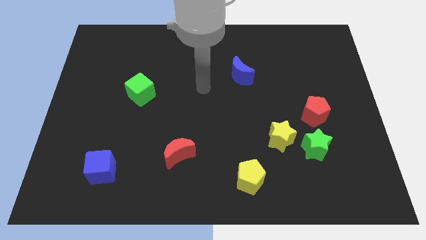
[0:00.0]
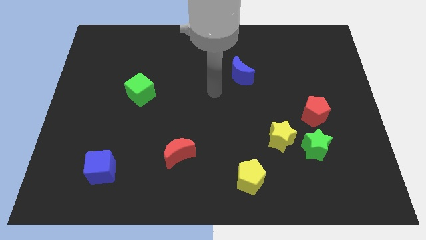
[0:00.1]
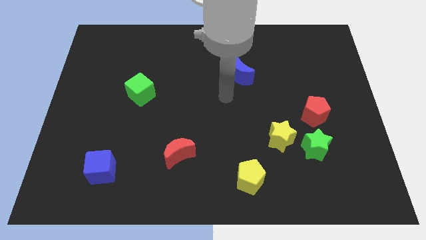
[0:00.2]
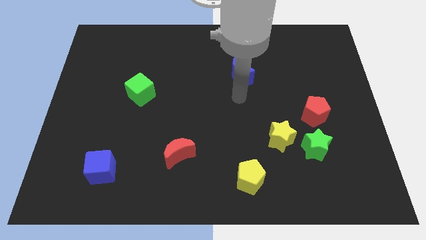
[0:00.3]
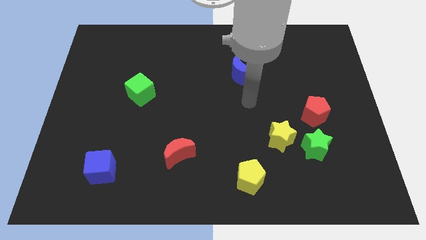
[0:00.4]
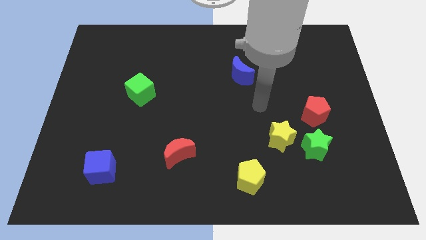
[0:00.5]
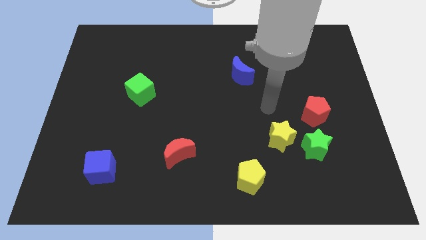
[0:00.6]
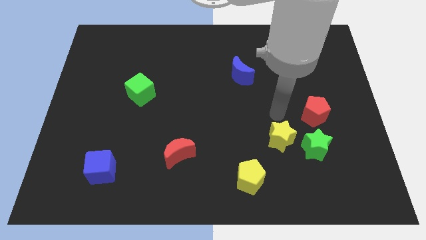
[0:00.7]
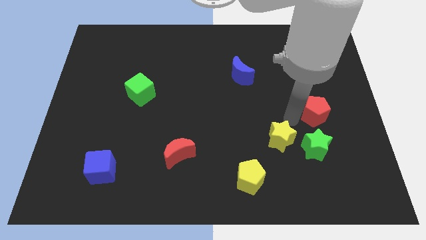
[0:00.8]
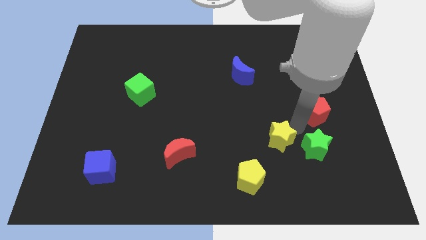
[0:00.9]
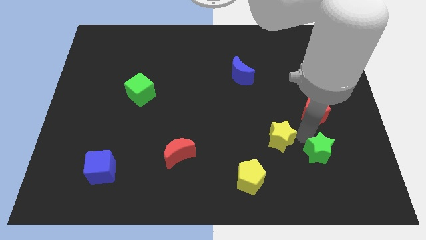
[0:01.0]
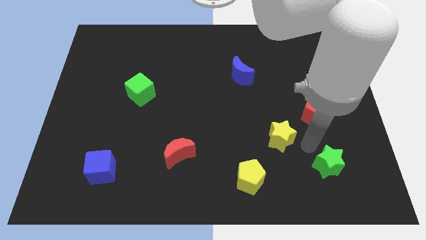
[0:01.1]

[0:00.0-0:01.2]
separate the yellow star from the green star

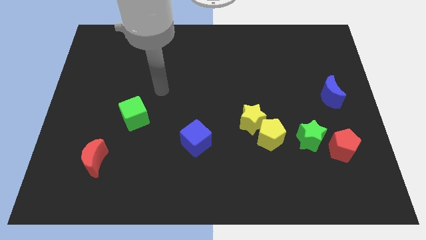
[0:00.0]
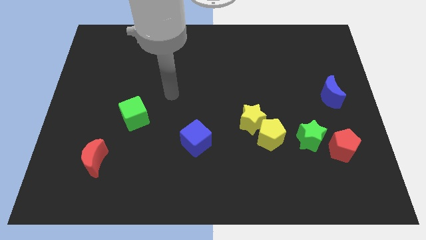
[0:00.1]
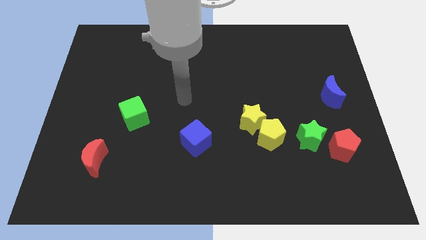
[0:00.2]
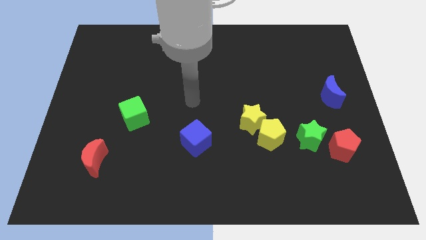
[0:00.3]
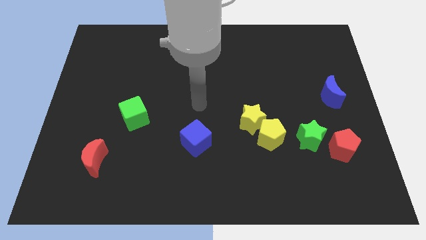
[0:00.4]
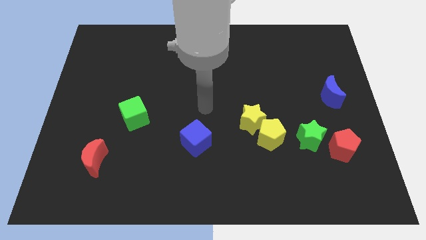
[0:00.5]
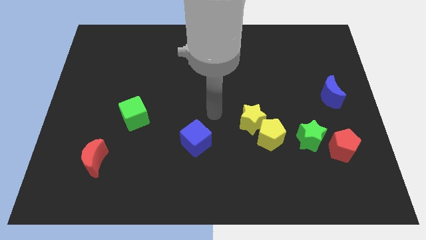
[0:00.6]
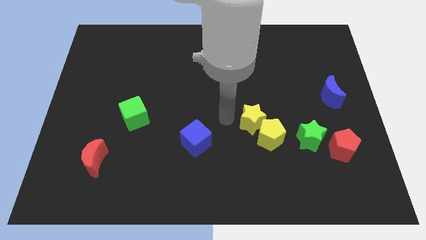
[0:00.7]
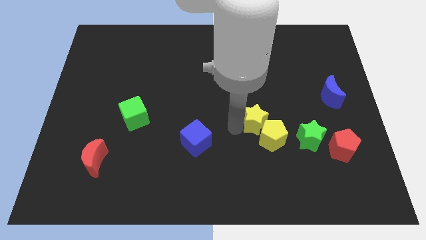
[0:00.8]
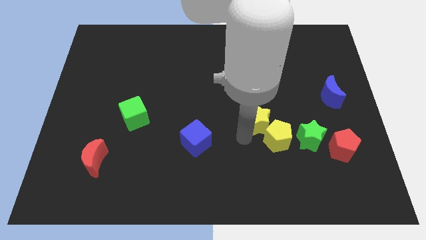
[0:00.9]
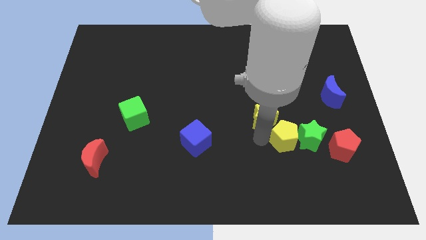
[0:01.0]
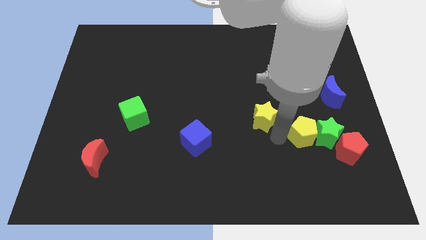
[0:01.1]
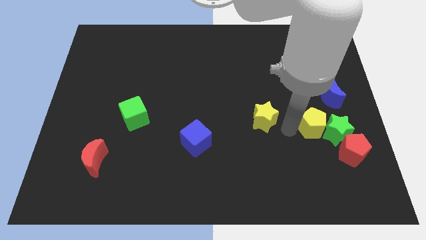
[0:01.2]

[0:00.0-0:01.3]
pull the yellow star apart from the yellow pentagon

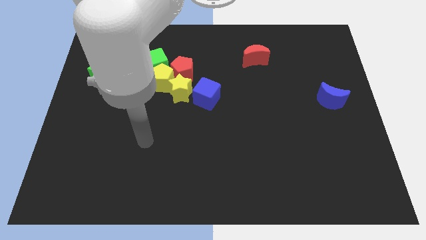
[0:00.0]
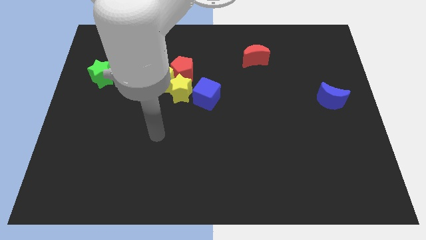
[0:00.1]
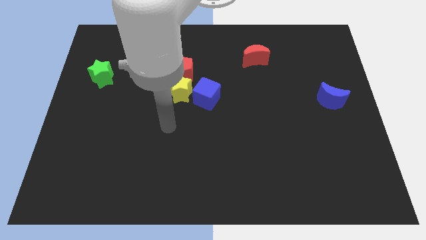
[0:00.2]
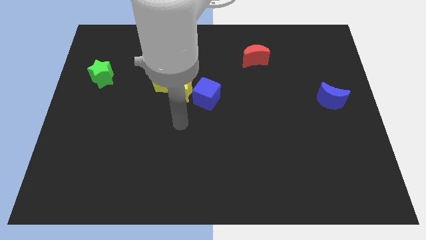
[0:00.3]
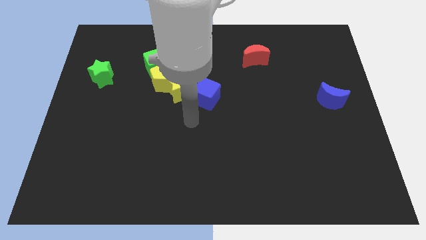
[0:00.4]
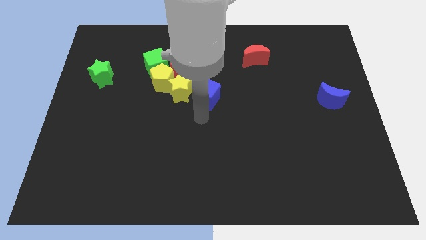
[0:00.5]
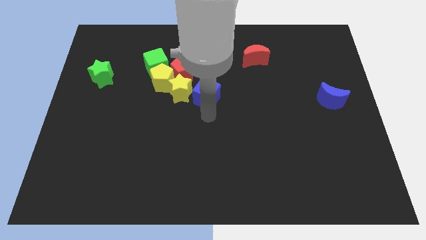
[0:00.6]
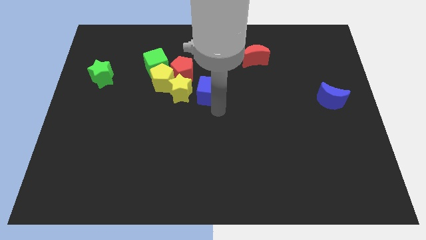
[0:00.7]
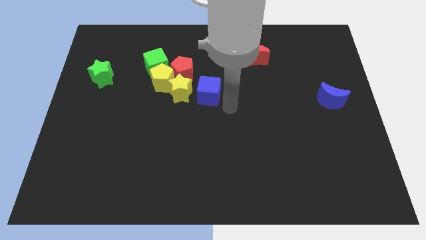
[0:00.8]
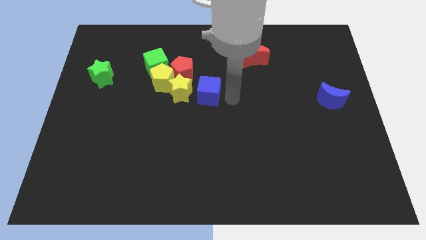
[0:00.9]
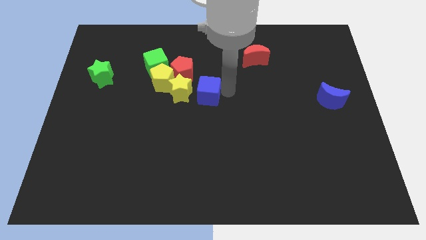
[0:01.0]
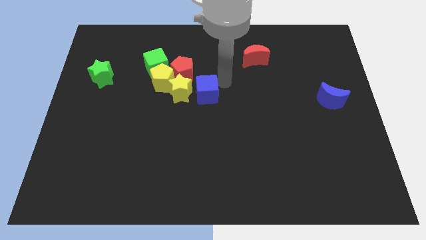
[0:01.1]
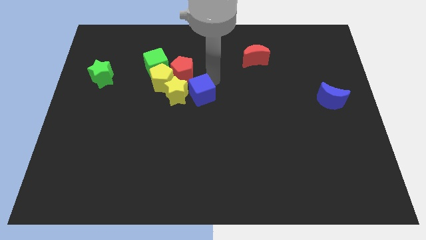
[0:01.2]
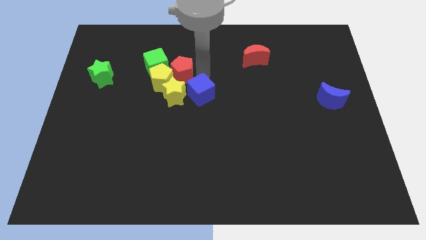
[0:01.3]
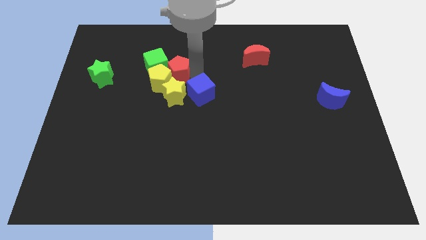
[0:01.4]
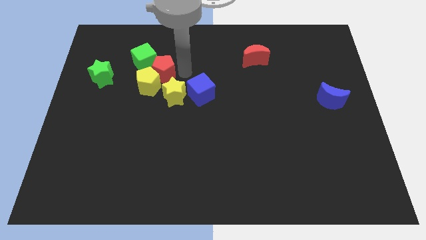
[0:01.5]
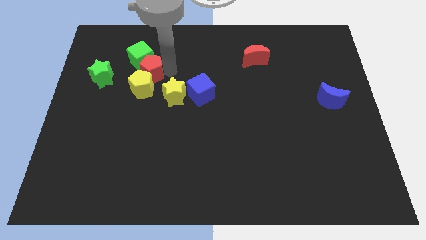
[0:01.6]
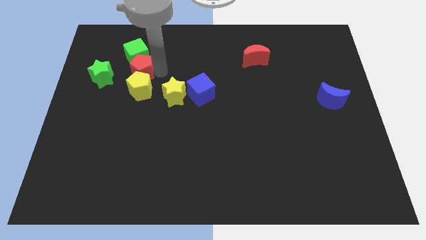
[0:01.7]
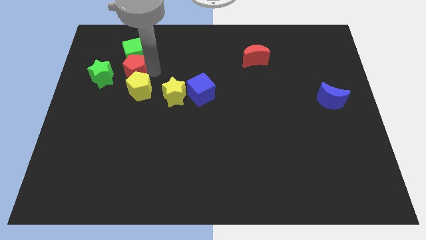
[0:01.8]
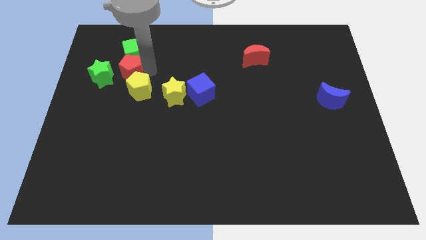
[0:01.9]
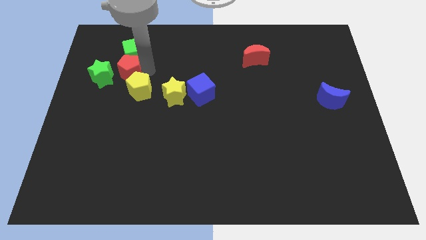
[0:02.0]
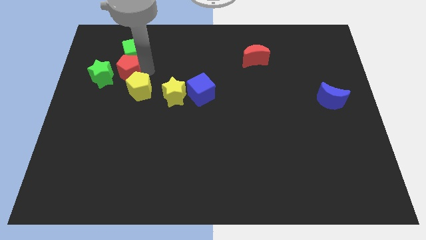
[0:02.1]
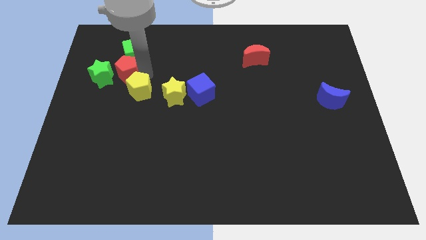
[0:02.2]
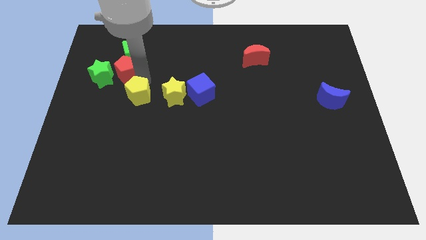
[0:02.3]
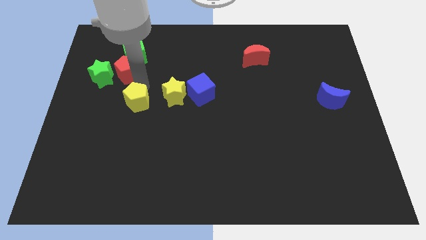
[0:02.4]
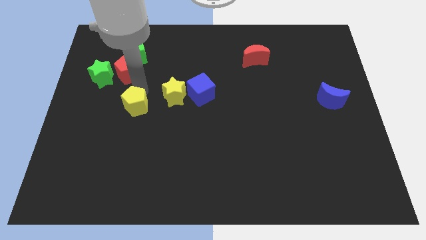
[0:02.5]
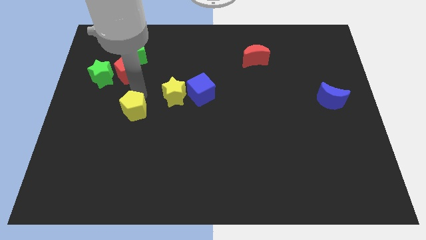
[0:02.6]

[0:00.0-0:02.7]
move the yellow pentagon away from the red pentagon, green cube, and yellow star

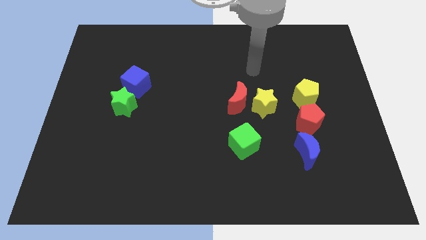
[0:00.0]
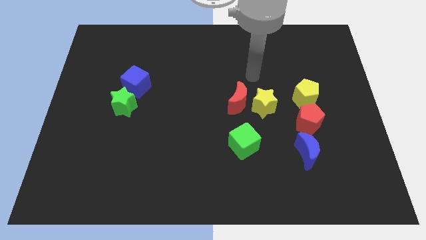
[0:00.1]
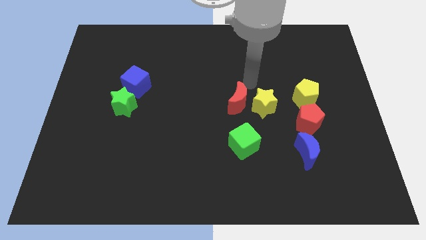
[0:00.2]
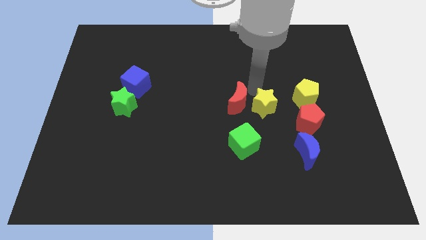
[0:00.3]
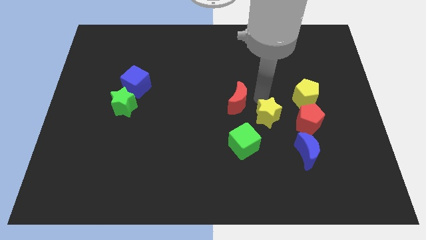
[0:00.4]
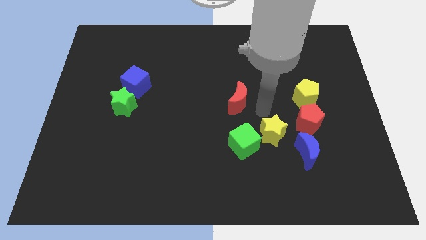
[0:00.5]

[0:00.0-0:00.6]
move the red moon away from the yellow star

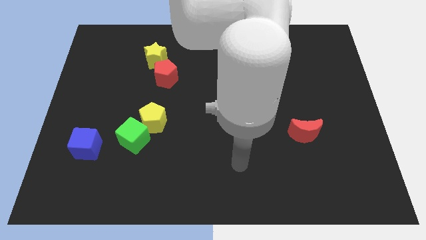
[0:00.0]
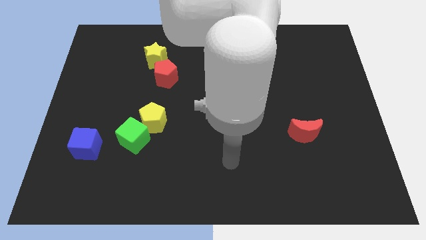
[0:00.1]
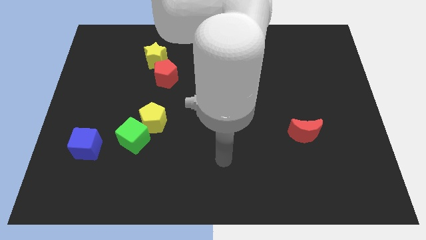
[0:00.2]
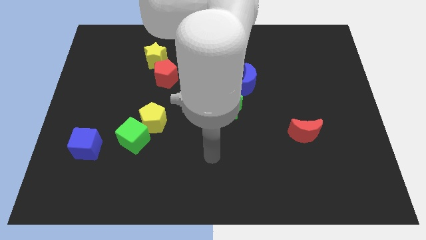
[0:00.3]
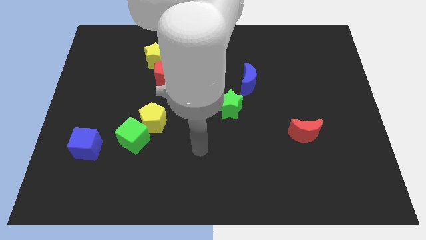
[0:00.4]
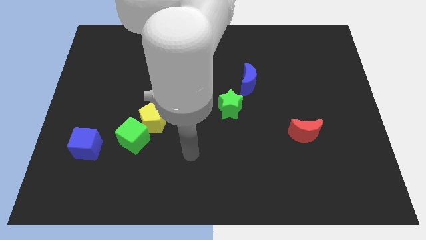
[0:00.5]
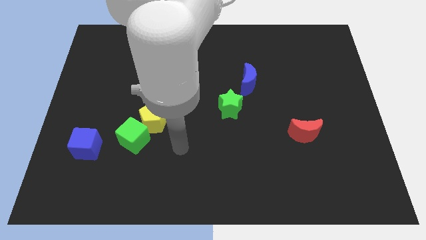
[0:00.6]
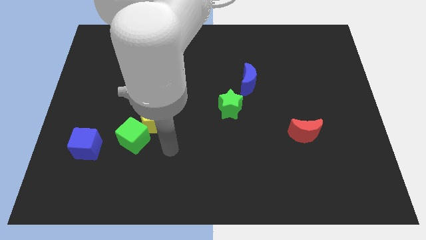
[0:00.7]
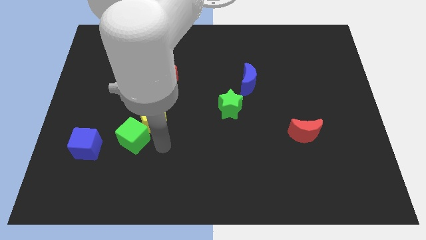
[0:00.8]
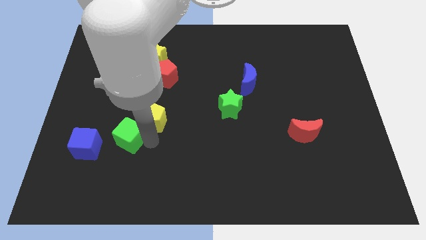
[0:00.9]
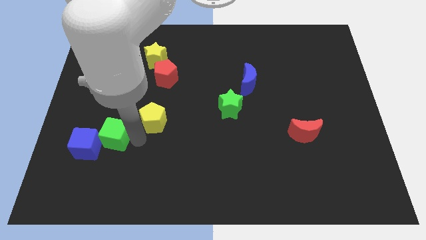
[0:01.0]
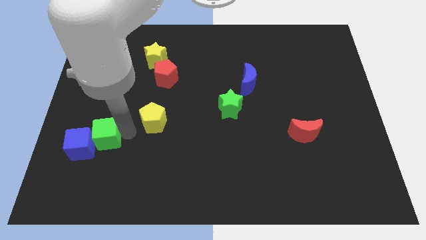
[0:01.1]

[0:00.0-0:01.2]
pull the yellow pentagon apart from the green cube

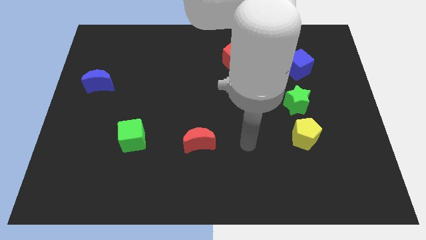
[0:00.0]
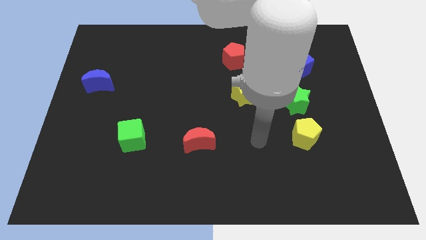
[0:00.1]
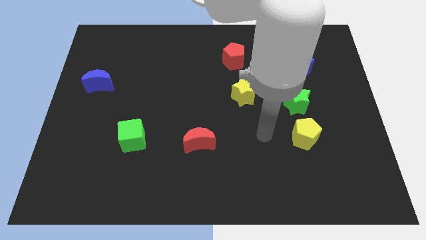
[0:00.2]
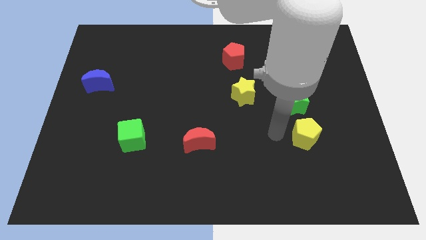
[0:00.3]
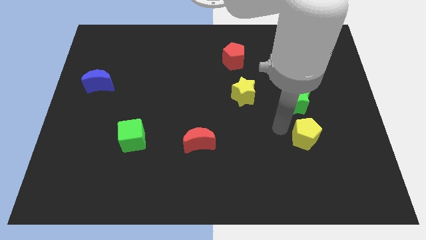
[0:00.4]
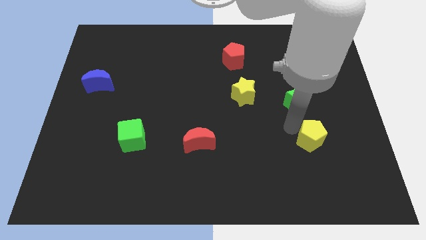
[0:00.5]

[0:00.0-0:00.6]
move the green star away from the yellow pentagon

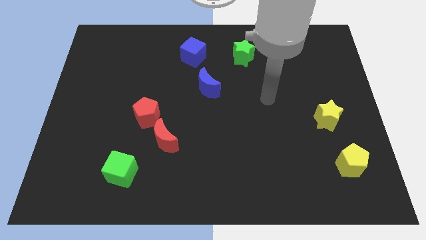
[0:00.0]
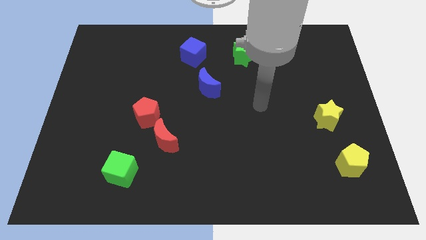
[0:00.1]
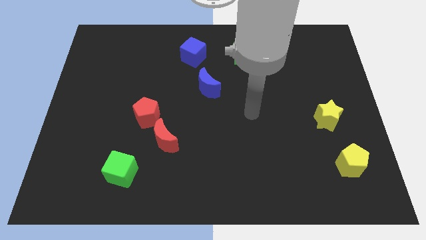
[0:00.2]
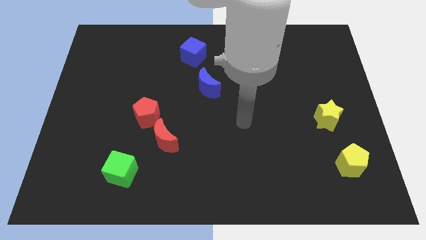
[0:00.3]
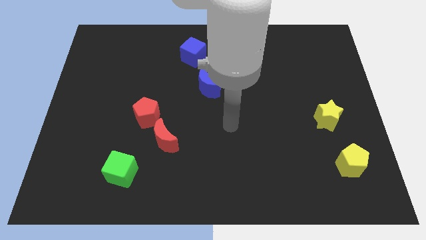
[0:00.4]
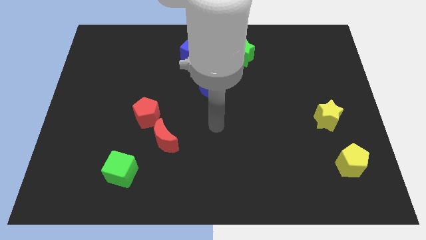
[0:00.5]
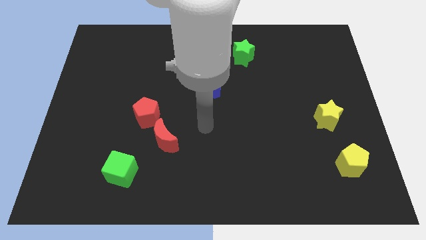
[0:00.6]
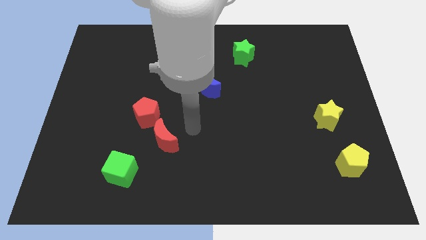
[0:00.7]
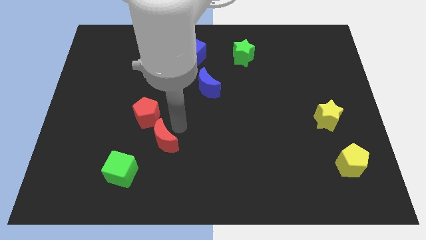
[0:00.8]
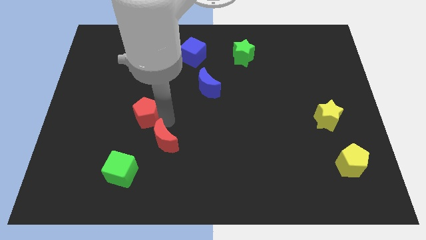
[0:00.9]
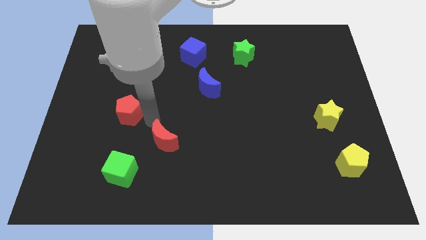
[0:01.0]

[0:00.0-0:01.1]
move the red moon away from the red pentagon

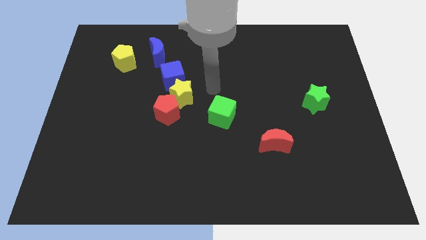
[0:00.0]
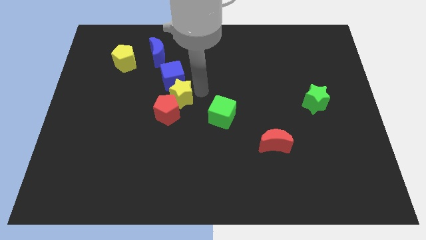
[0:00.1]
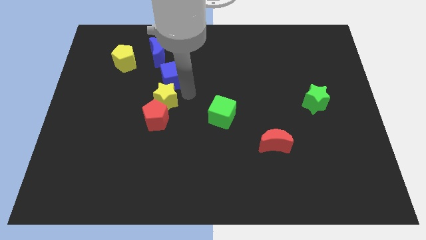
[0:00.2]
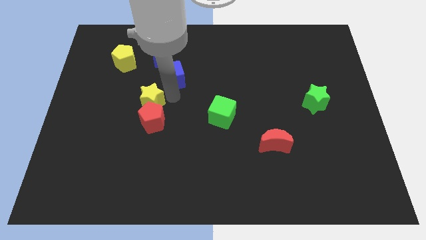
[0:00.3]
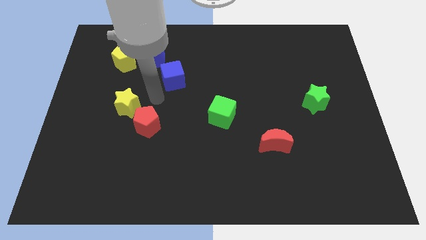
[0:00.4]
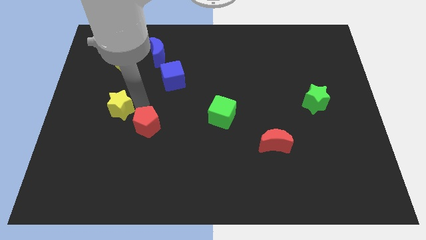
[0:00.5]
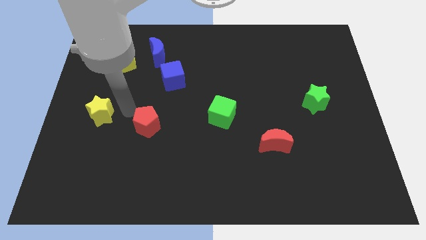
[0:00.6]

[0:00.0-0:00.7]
separate the red pentagon from the yellow star
